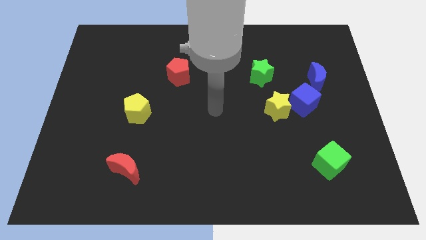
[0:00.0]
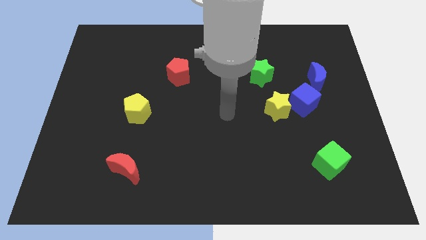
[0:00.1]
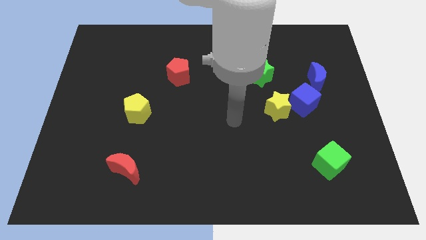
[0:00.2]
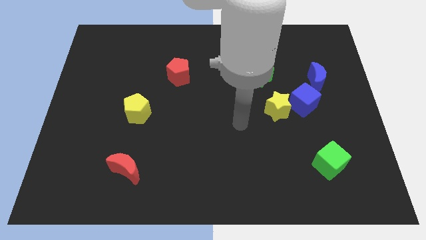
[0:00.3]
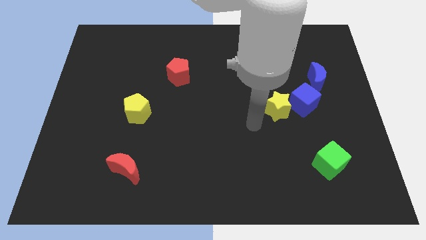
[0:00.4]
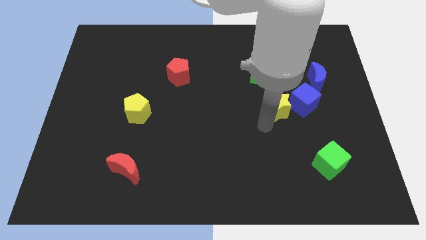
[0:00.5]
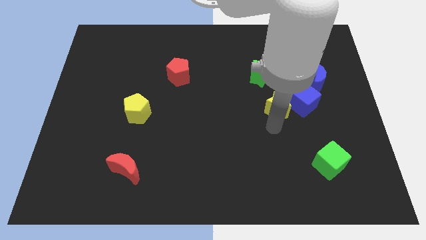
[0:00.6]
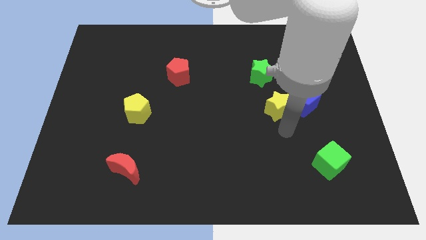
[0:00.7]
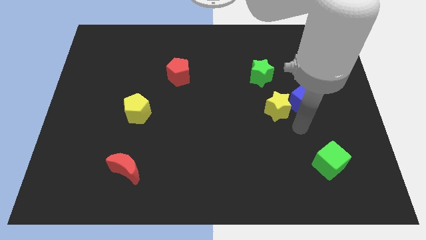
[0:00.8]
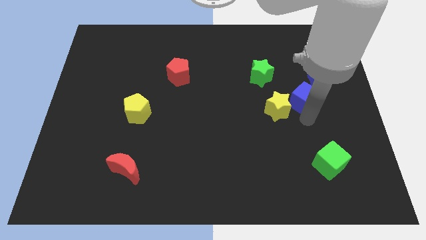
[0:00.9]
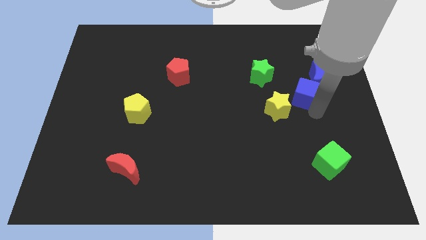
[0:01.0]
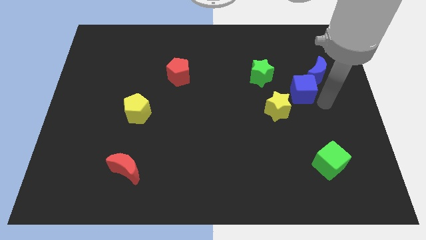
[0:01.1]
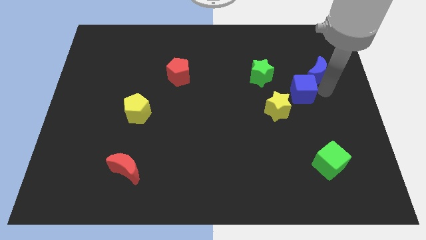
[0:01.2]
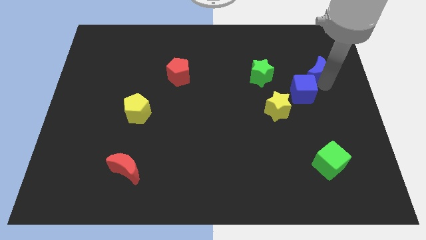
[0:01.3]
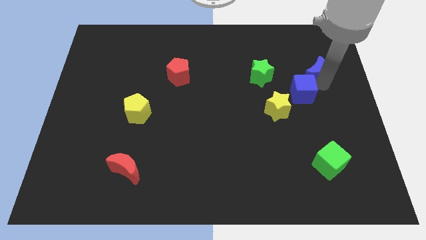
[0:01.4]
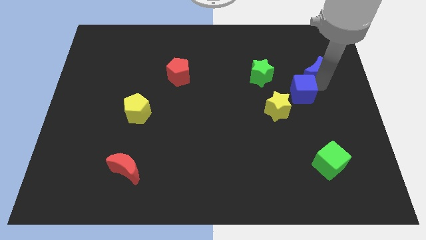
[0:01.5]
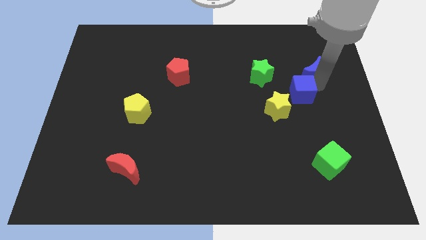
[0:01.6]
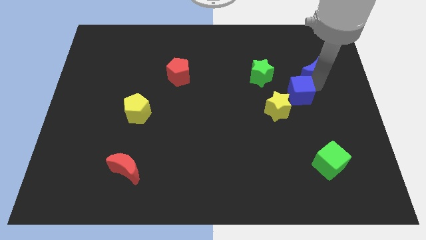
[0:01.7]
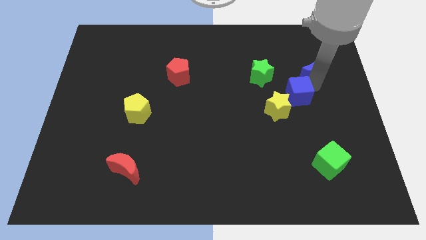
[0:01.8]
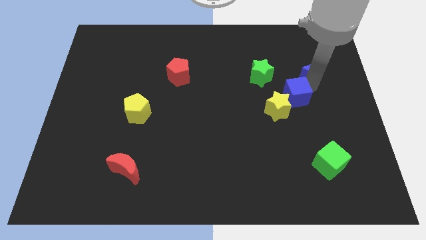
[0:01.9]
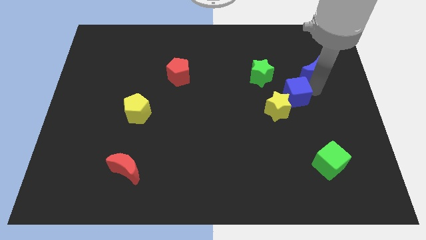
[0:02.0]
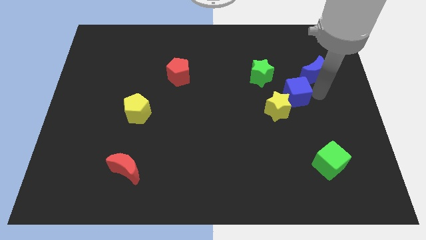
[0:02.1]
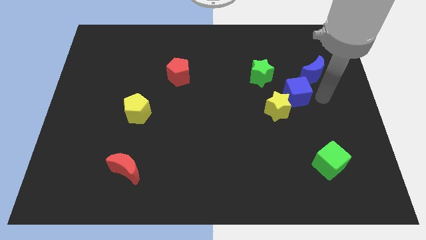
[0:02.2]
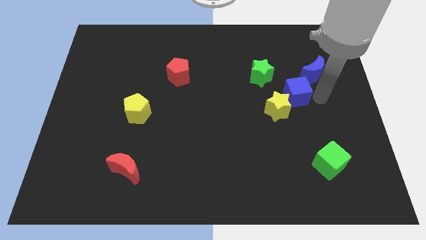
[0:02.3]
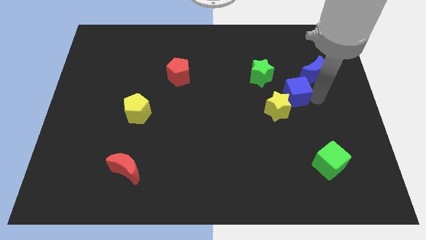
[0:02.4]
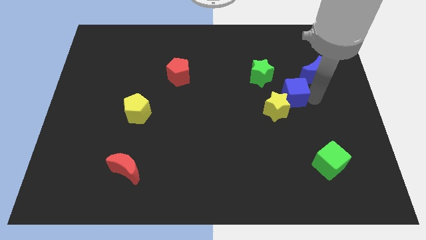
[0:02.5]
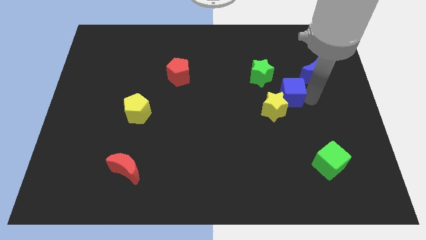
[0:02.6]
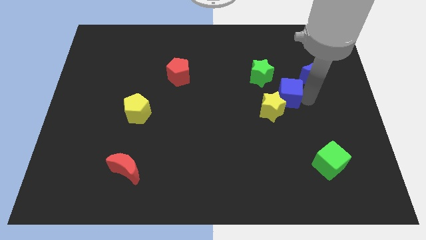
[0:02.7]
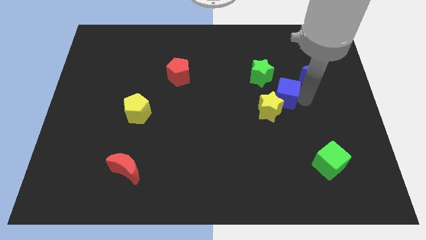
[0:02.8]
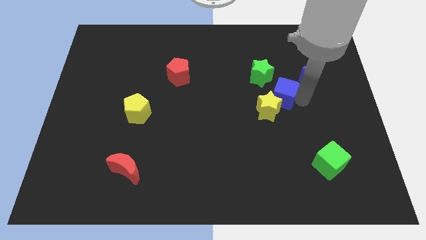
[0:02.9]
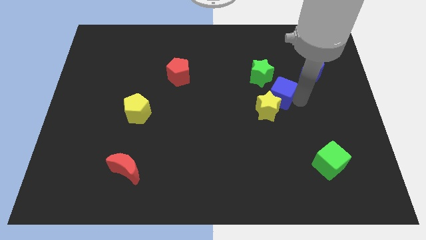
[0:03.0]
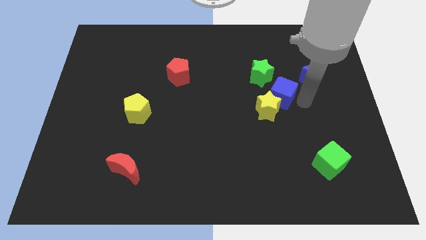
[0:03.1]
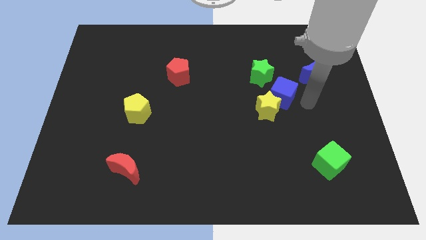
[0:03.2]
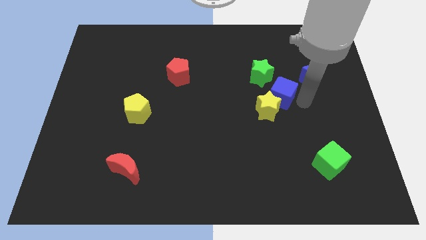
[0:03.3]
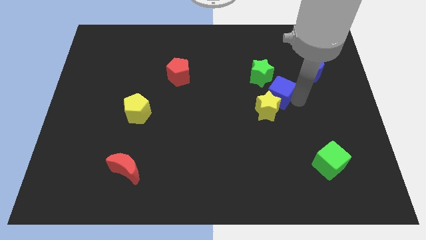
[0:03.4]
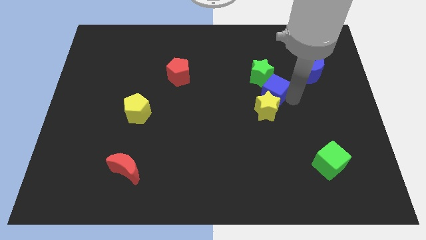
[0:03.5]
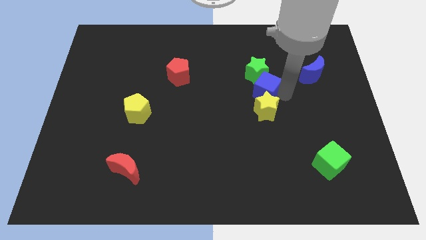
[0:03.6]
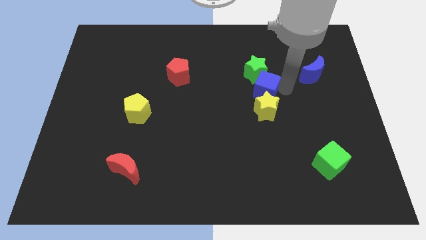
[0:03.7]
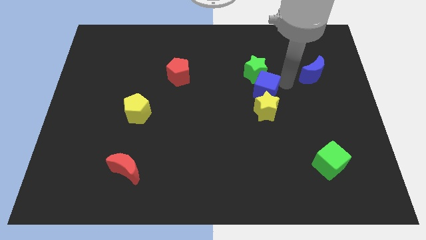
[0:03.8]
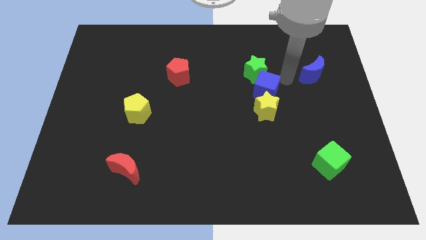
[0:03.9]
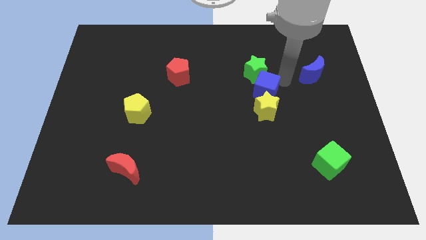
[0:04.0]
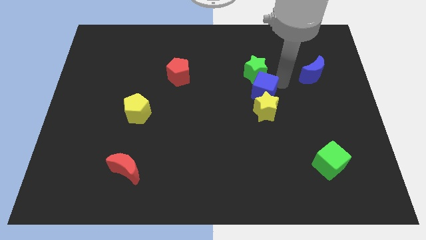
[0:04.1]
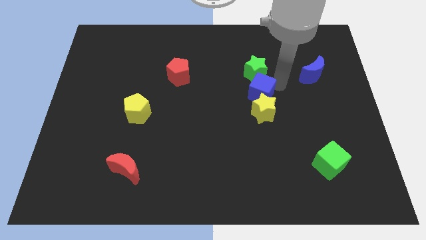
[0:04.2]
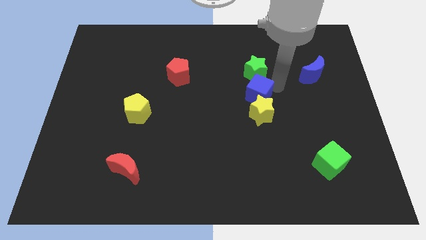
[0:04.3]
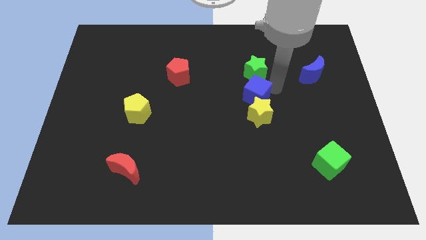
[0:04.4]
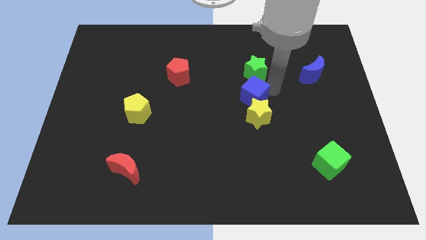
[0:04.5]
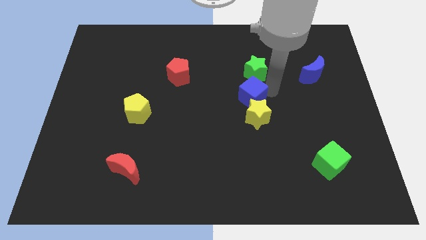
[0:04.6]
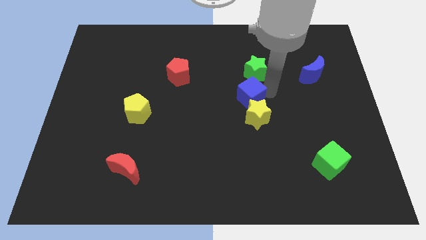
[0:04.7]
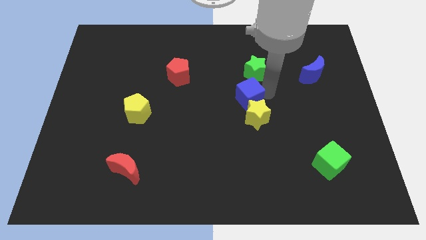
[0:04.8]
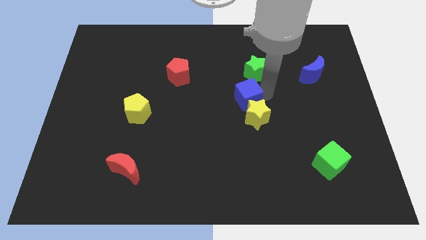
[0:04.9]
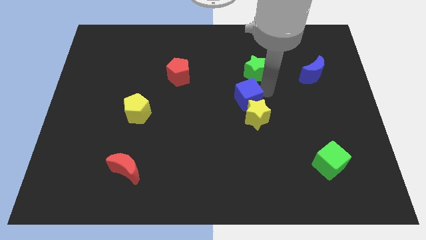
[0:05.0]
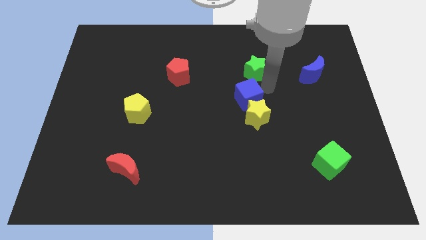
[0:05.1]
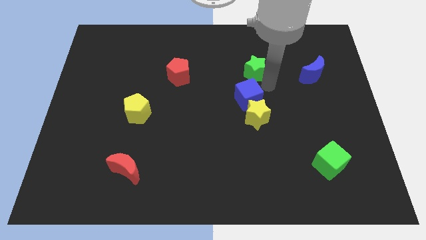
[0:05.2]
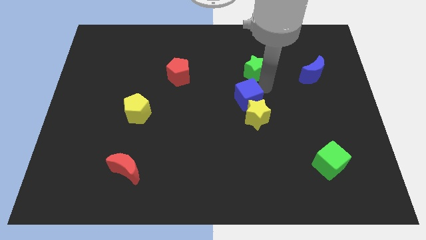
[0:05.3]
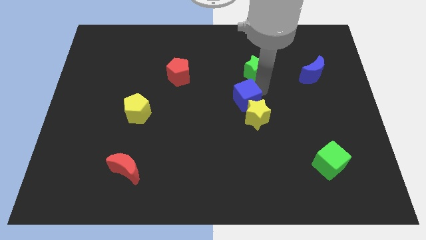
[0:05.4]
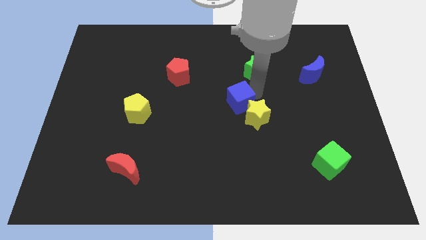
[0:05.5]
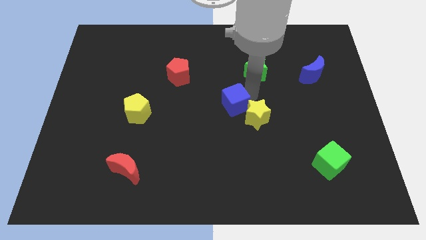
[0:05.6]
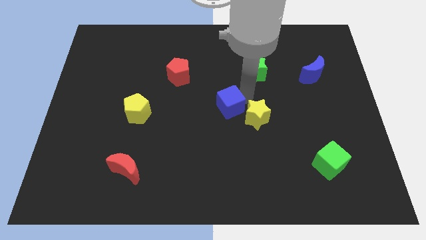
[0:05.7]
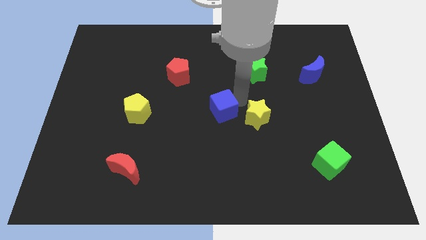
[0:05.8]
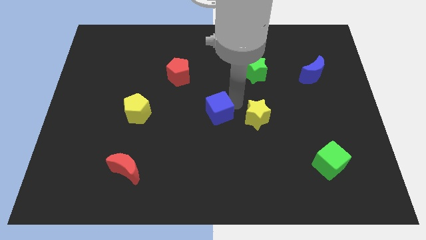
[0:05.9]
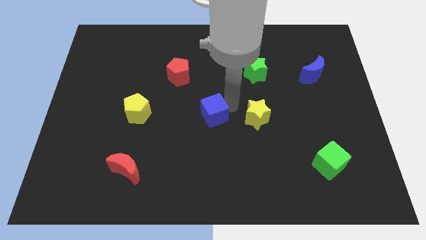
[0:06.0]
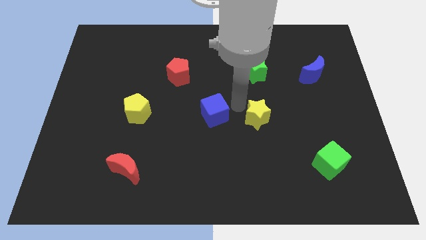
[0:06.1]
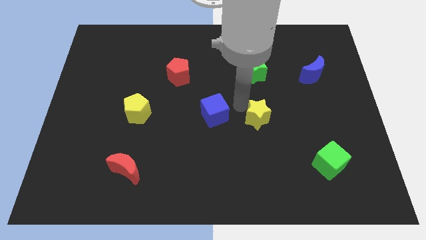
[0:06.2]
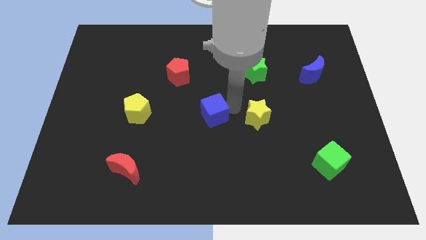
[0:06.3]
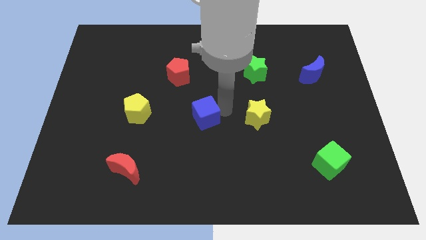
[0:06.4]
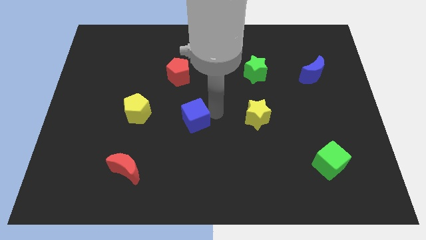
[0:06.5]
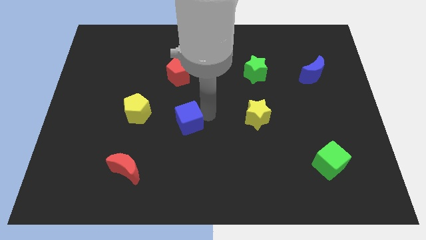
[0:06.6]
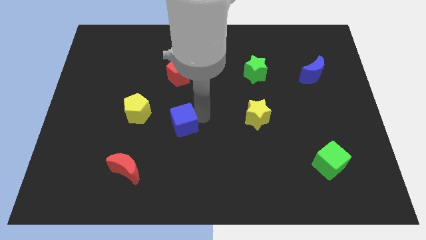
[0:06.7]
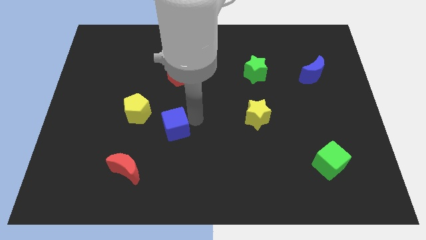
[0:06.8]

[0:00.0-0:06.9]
put the blue cube to the bottom right of the yellow pentagon
